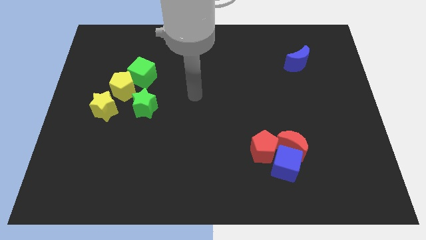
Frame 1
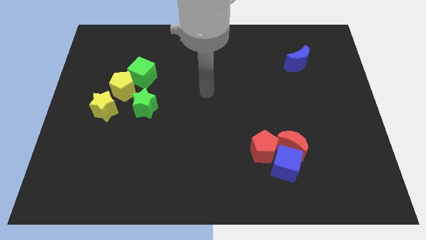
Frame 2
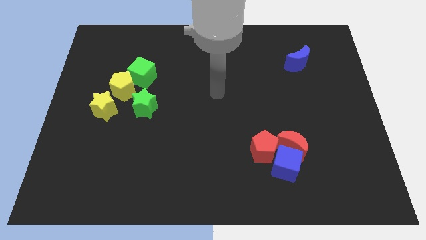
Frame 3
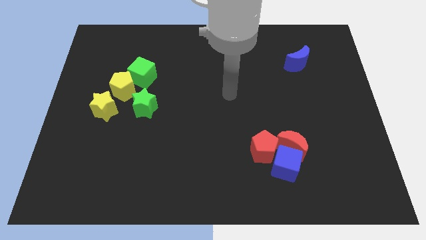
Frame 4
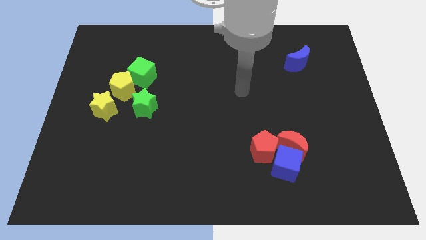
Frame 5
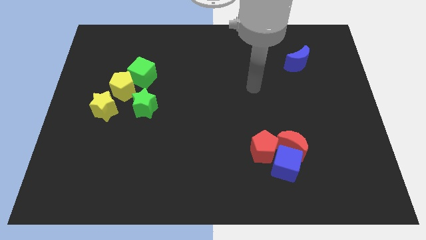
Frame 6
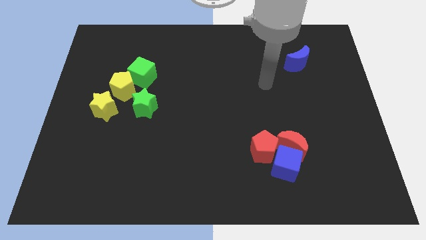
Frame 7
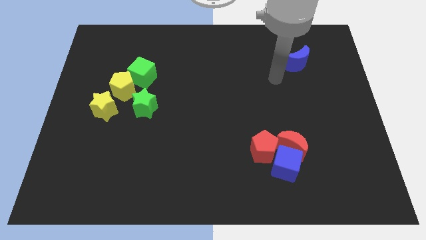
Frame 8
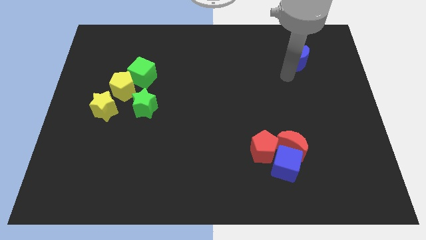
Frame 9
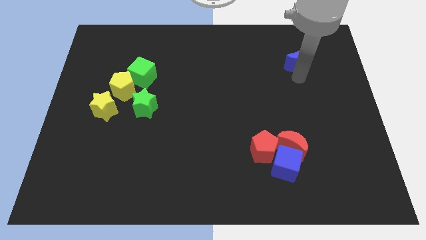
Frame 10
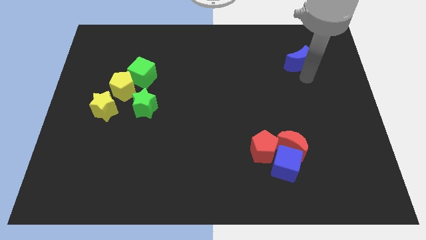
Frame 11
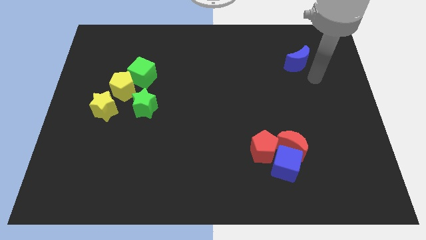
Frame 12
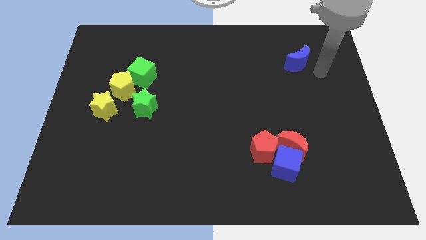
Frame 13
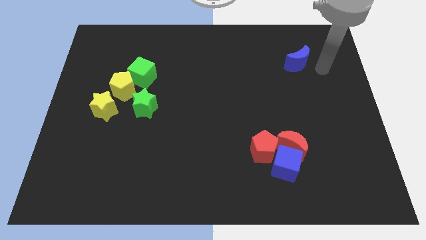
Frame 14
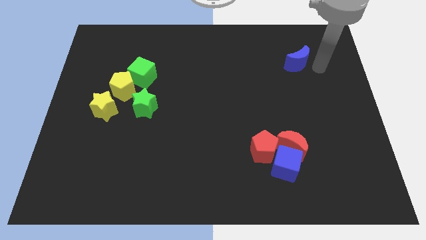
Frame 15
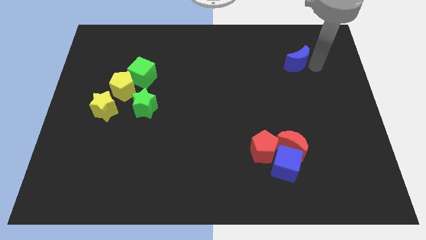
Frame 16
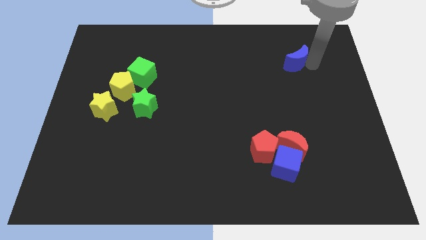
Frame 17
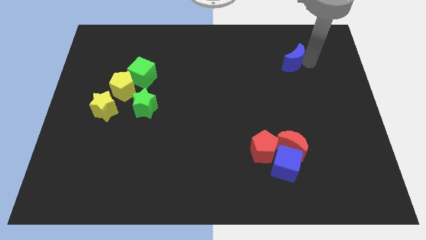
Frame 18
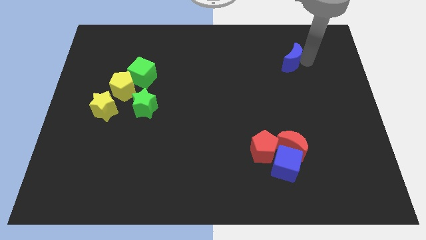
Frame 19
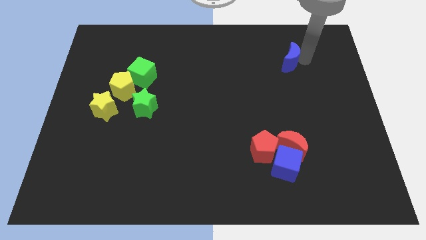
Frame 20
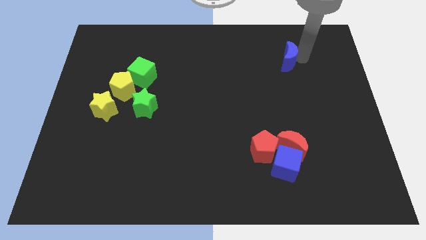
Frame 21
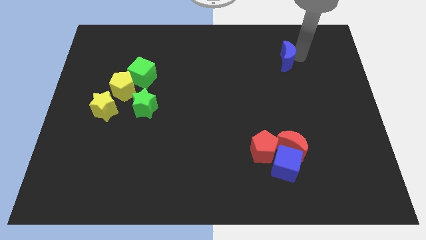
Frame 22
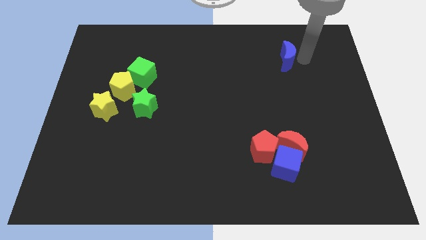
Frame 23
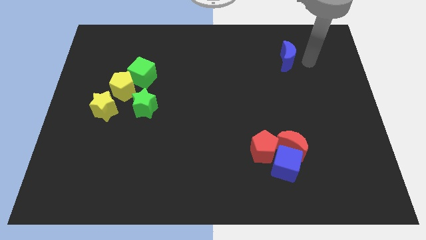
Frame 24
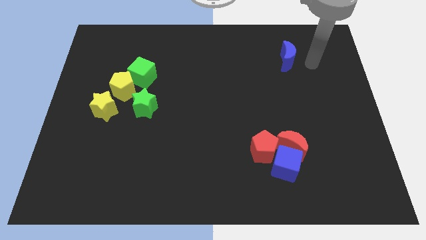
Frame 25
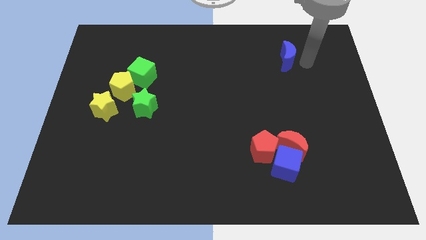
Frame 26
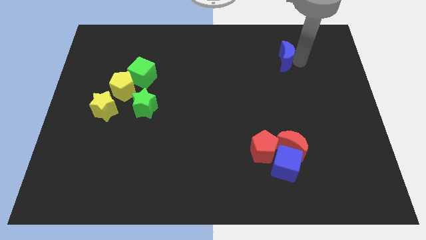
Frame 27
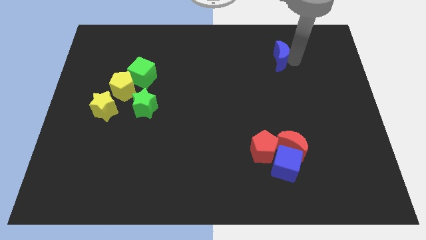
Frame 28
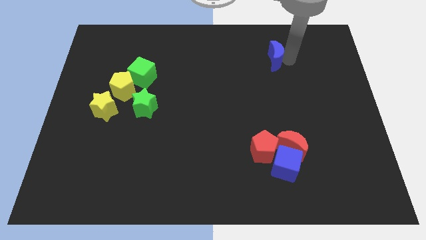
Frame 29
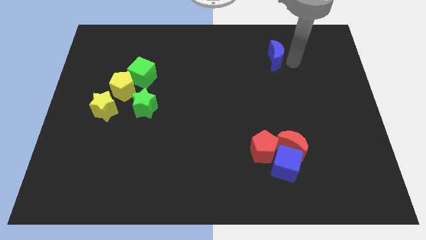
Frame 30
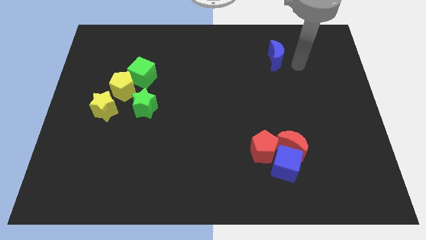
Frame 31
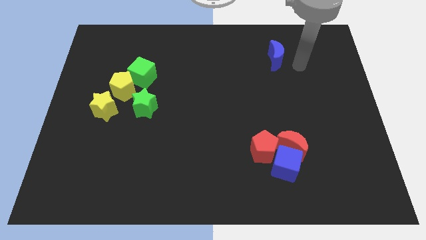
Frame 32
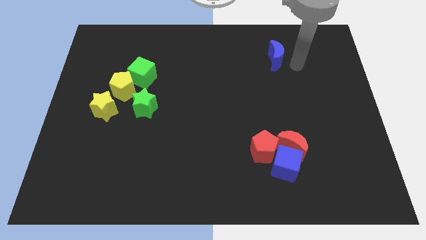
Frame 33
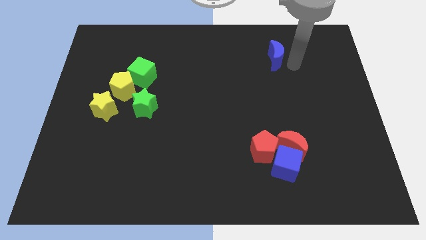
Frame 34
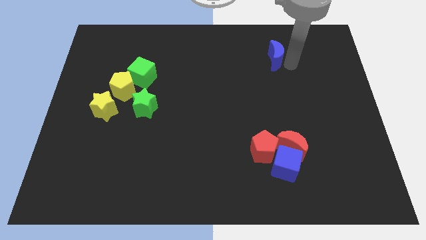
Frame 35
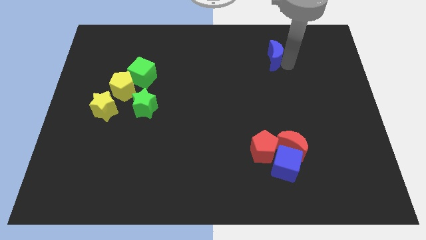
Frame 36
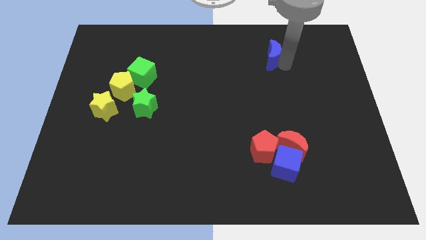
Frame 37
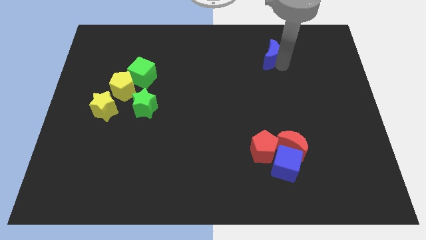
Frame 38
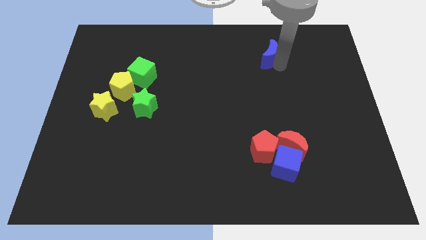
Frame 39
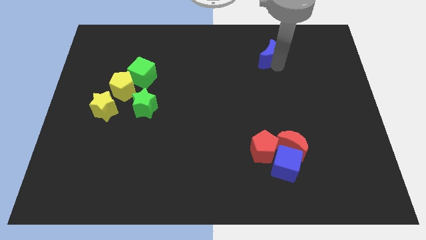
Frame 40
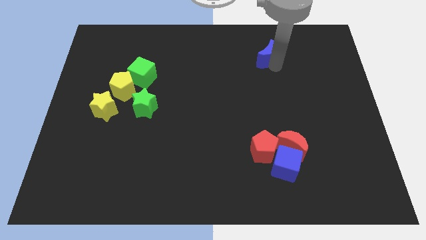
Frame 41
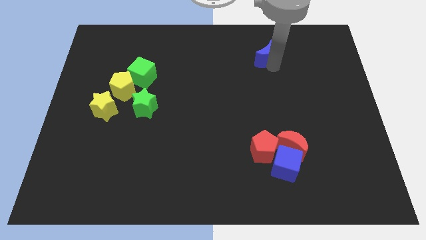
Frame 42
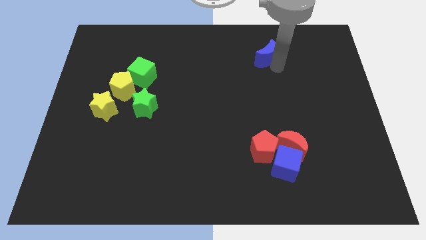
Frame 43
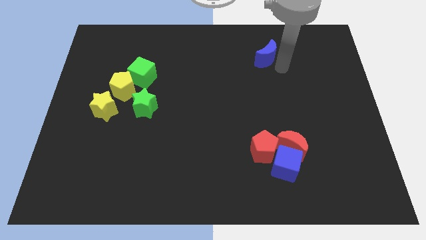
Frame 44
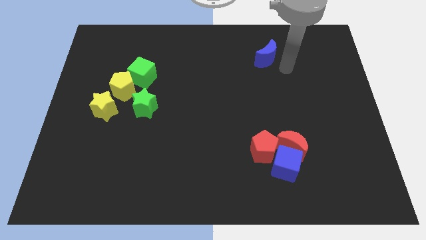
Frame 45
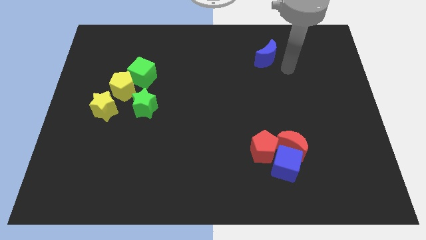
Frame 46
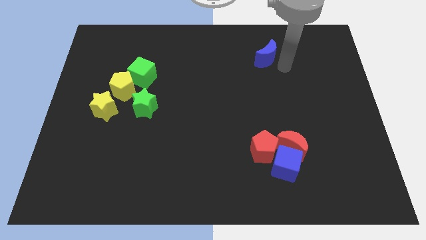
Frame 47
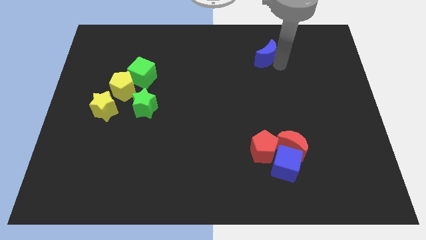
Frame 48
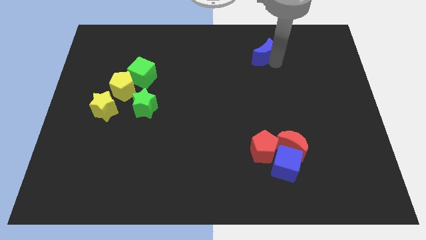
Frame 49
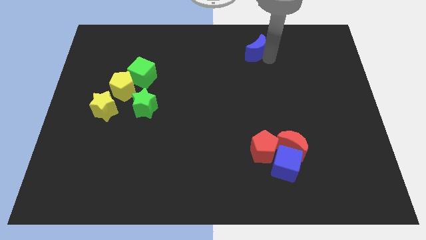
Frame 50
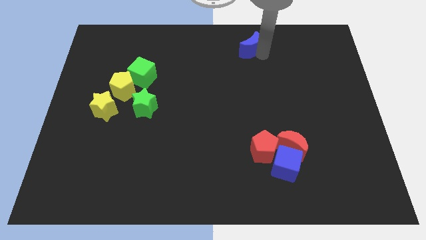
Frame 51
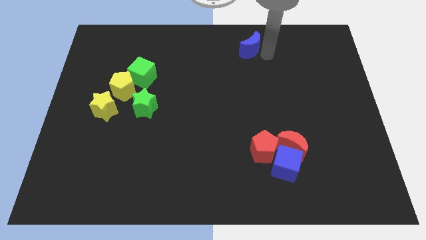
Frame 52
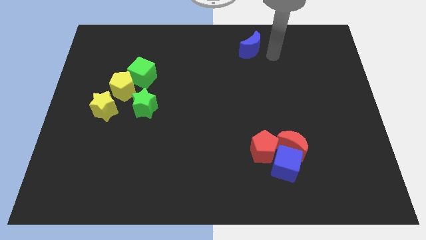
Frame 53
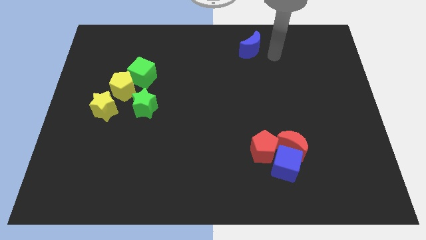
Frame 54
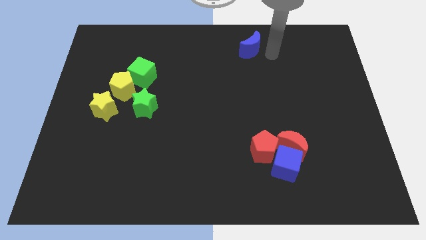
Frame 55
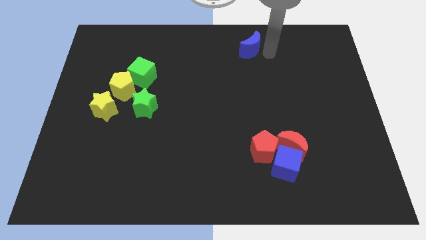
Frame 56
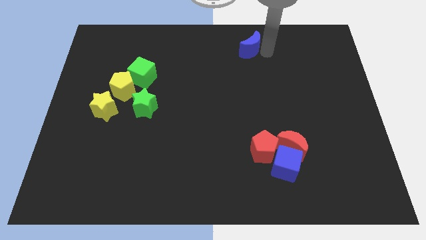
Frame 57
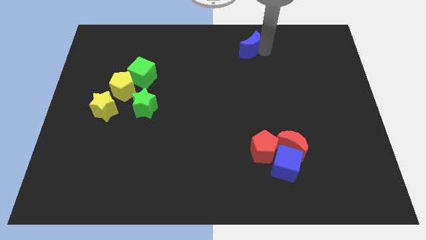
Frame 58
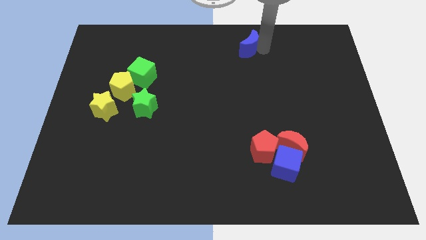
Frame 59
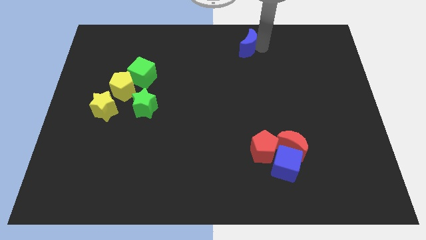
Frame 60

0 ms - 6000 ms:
move the blue moon to the top

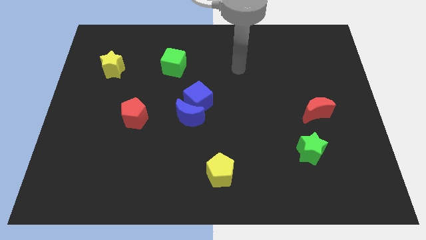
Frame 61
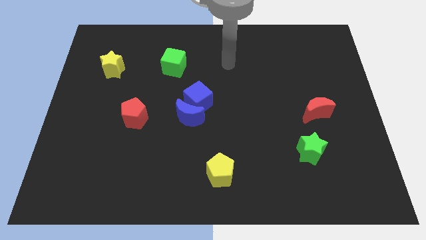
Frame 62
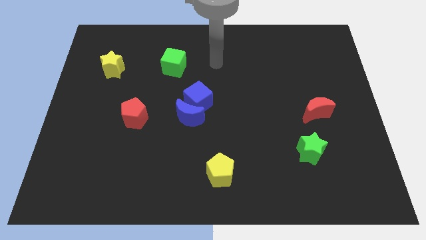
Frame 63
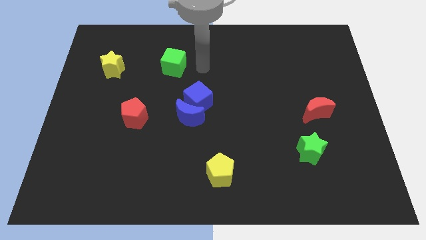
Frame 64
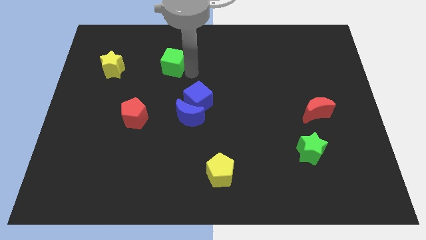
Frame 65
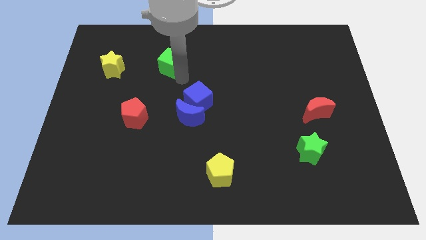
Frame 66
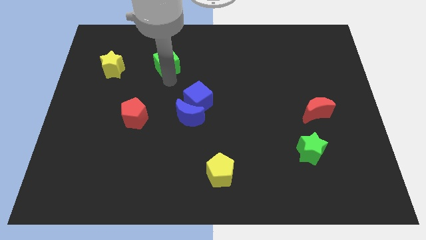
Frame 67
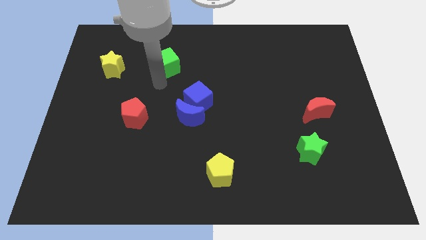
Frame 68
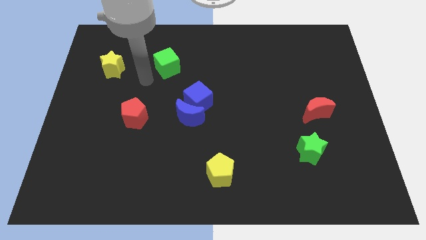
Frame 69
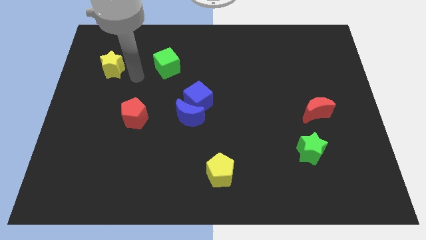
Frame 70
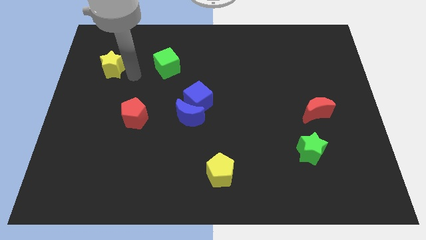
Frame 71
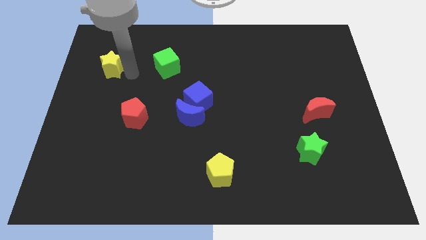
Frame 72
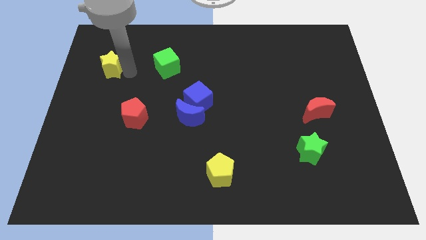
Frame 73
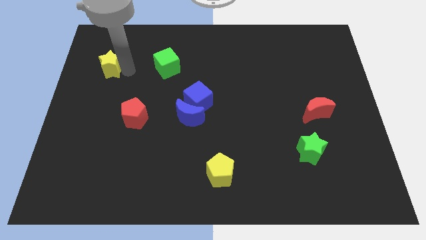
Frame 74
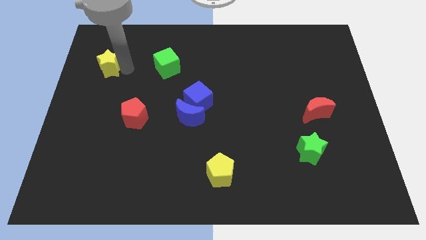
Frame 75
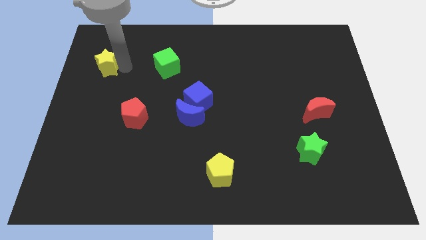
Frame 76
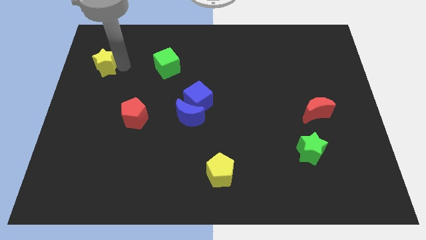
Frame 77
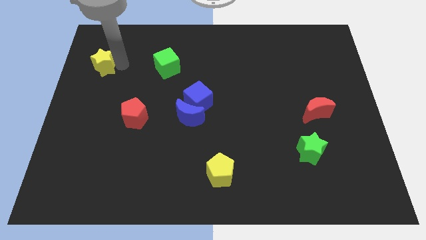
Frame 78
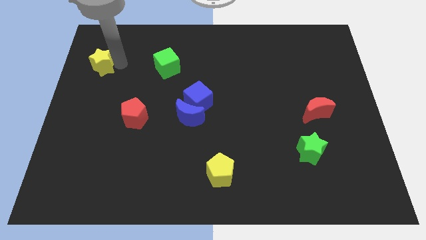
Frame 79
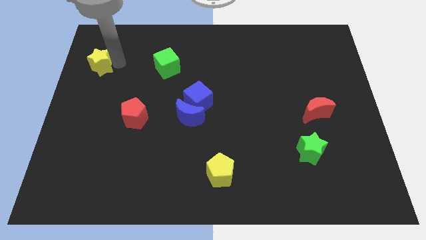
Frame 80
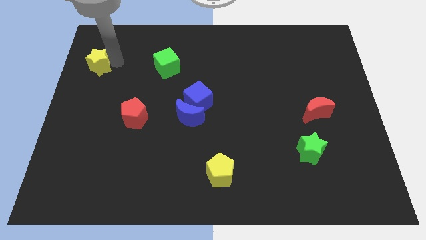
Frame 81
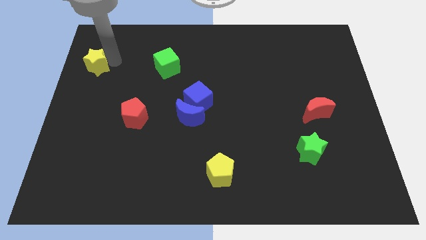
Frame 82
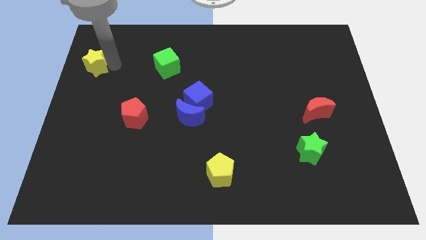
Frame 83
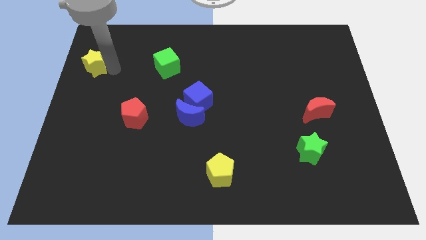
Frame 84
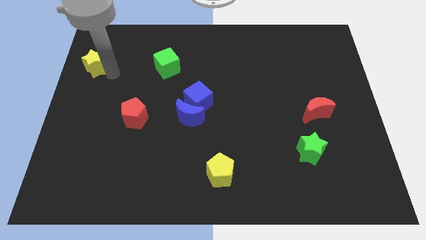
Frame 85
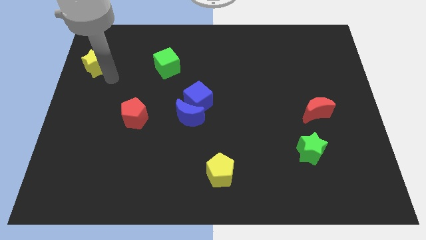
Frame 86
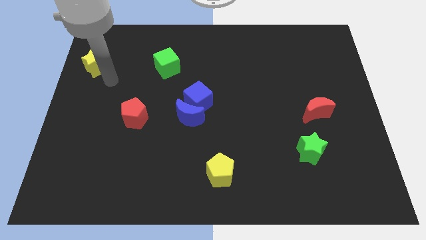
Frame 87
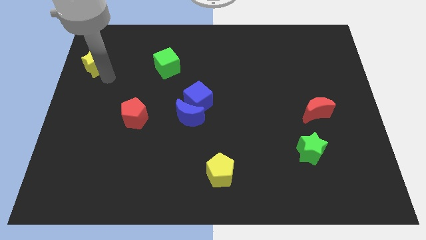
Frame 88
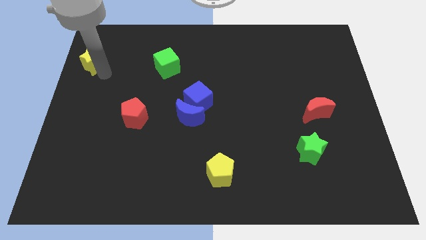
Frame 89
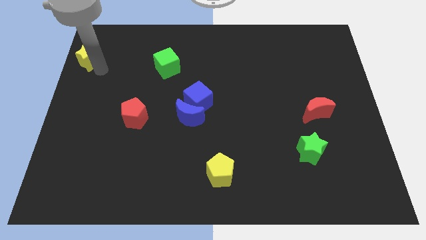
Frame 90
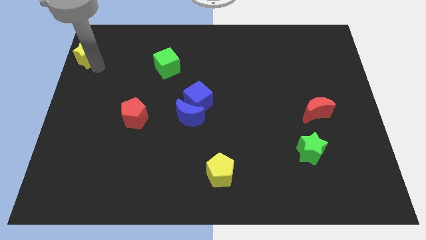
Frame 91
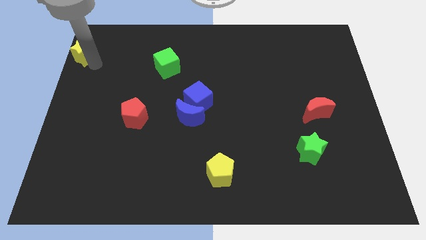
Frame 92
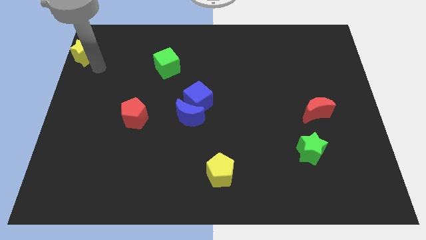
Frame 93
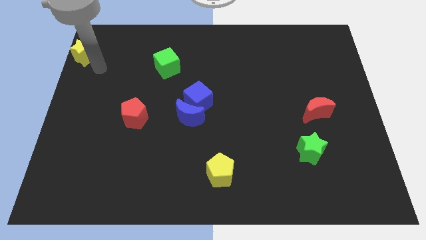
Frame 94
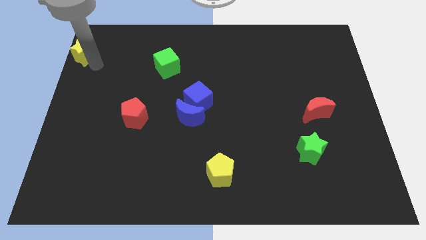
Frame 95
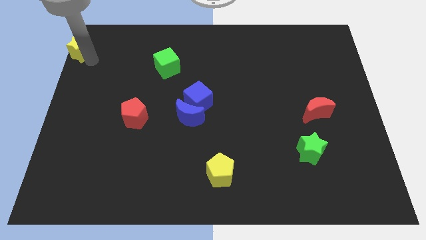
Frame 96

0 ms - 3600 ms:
move the yellow star to the top left of the board
